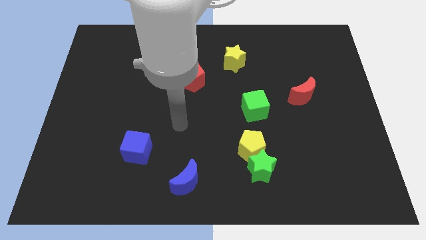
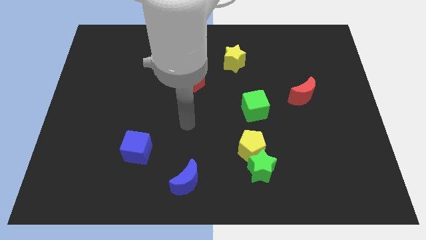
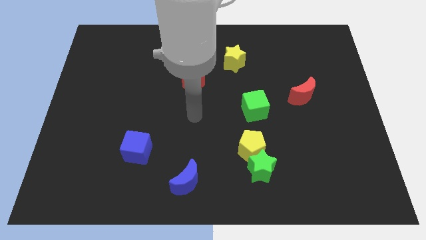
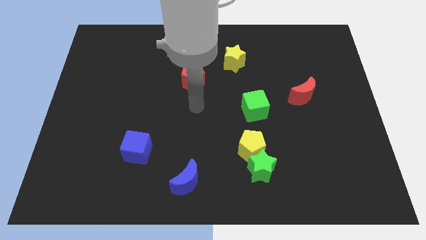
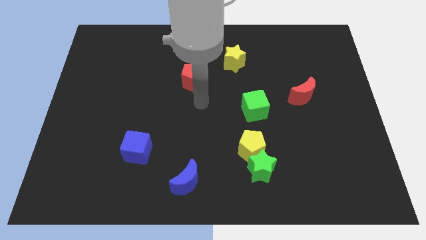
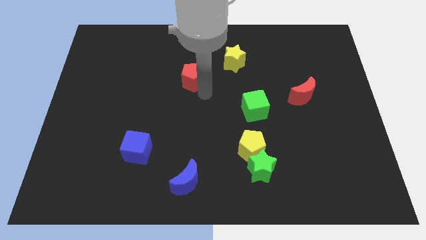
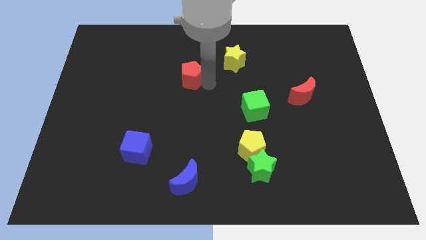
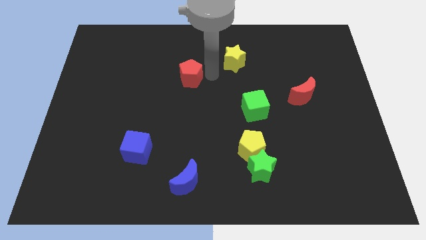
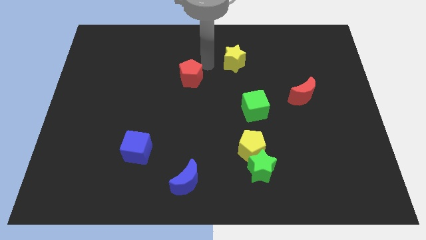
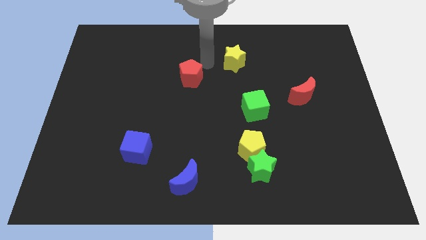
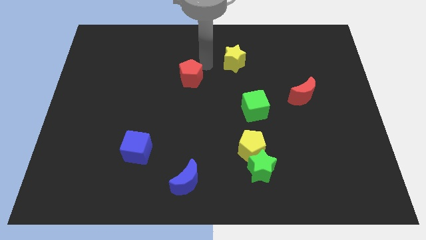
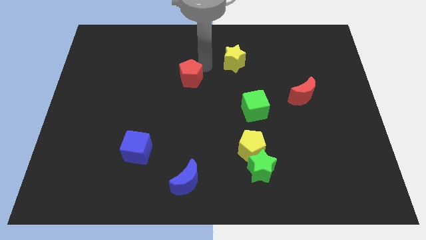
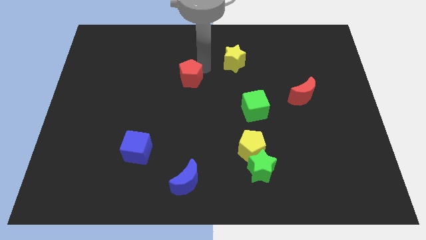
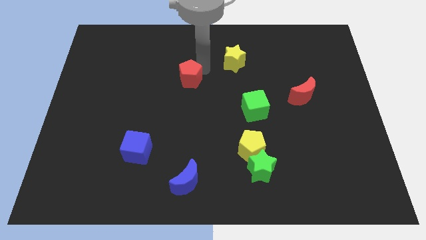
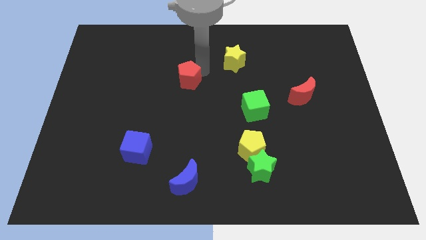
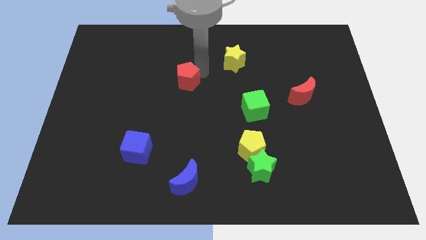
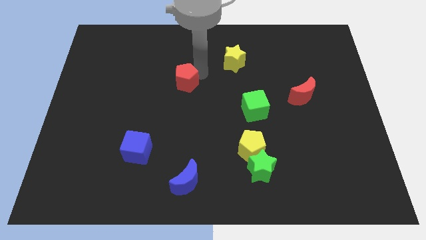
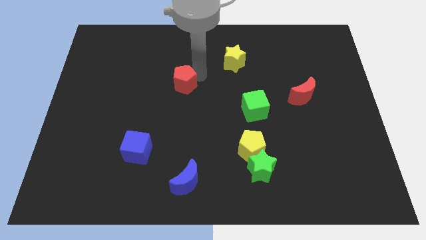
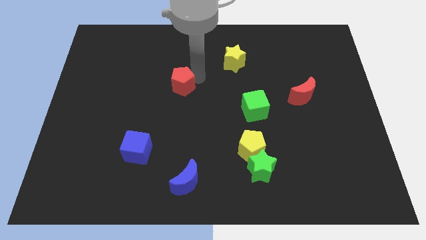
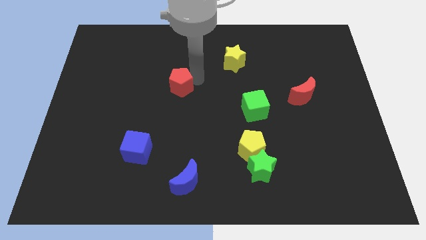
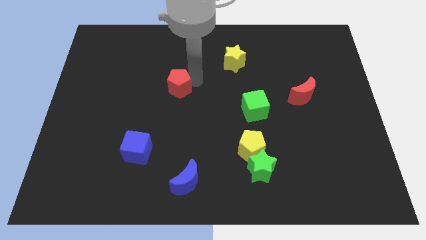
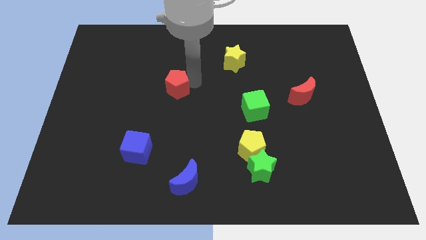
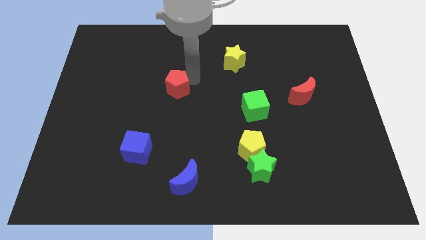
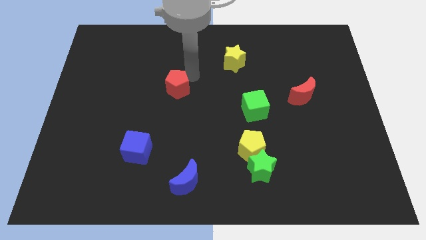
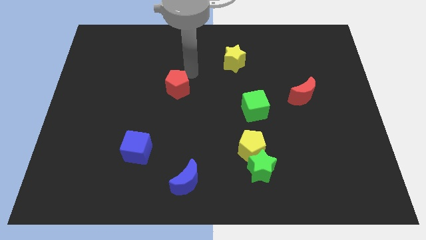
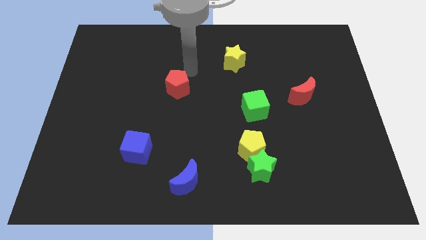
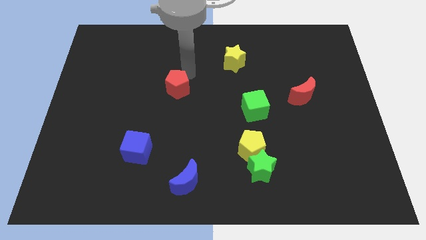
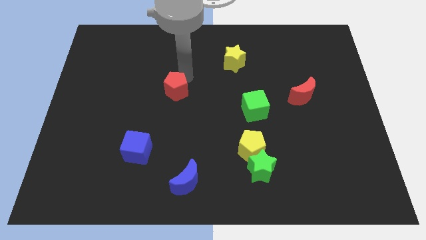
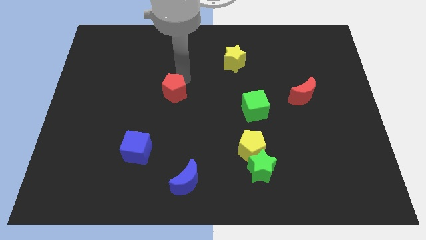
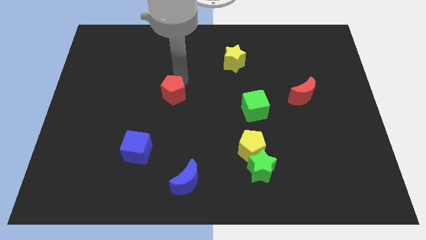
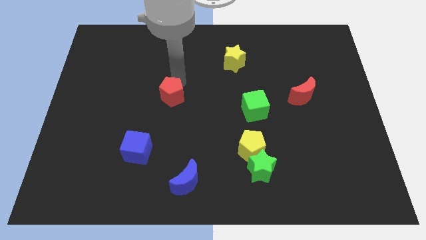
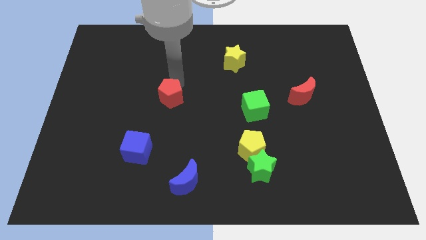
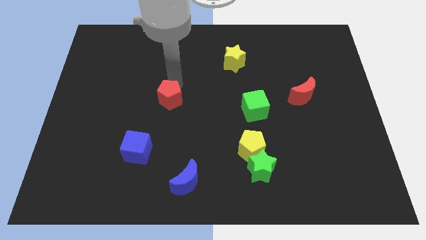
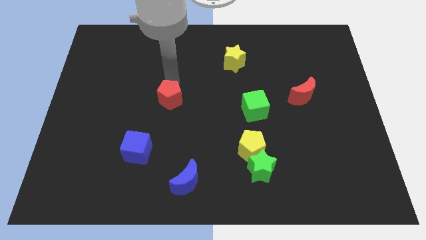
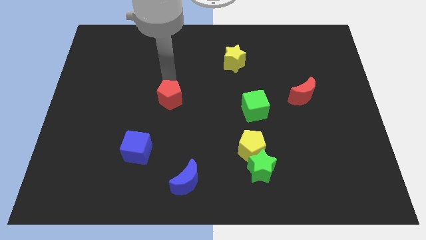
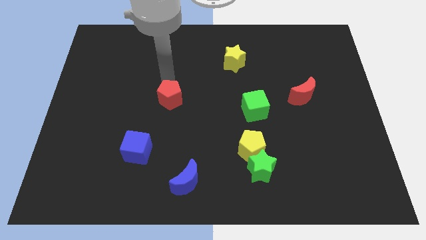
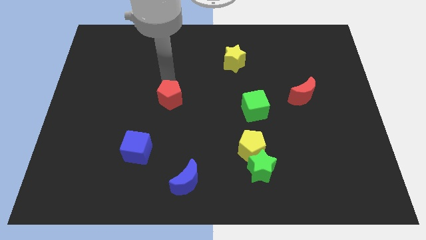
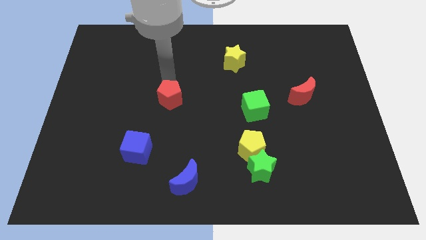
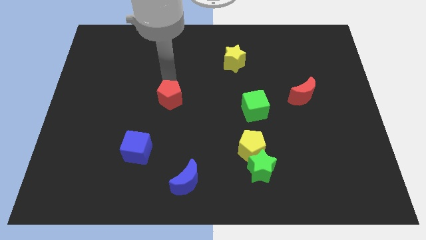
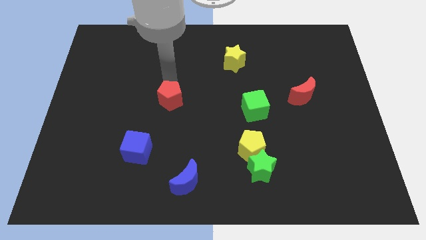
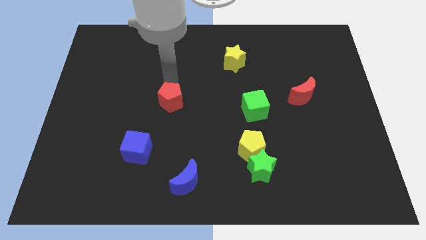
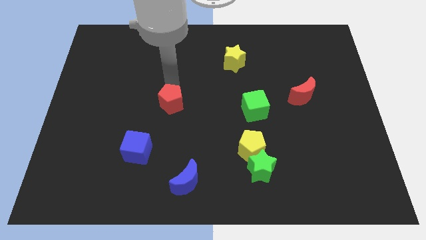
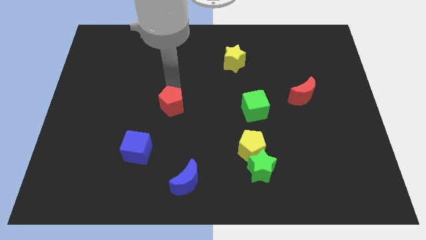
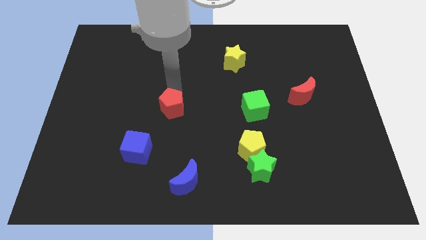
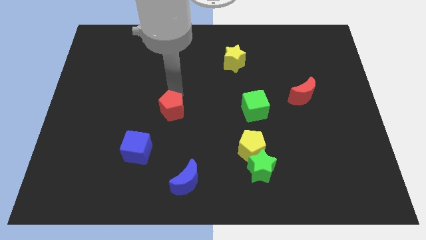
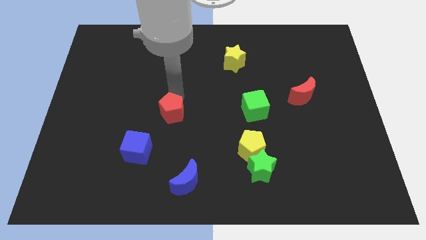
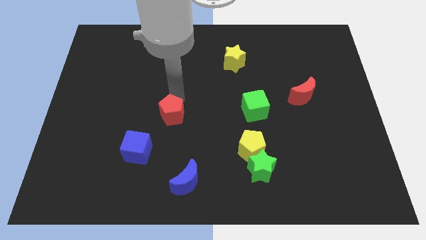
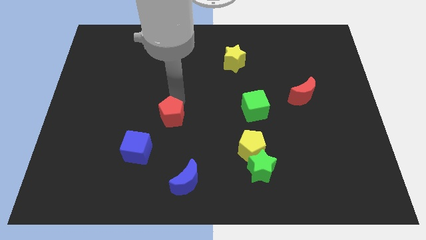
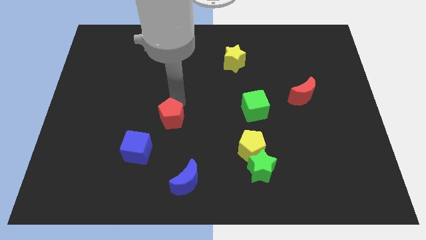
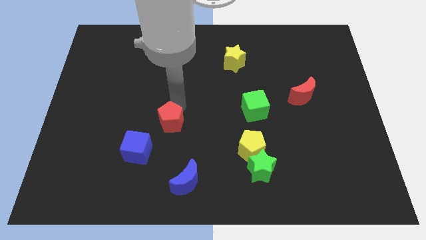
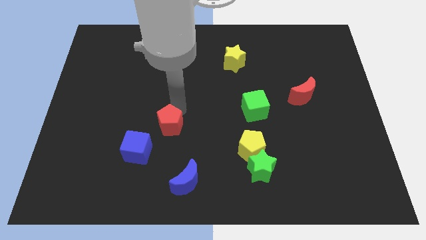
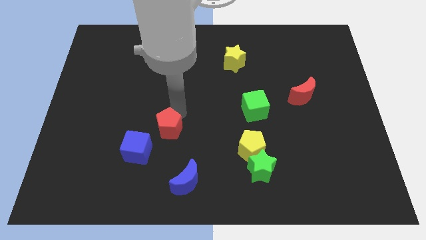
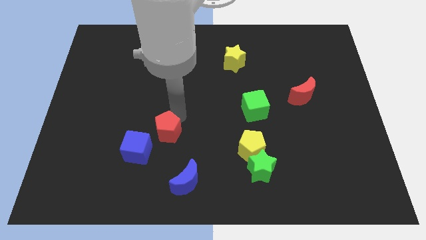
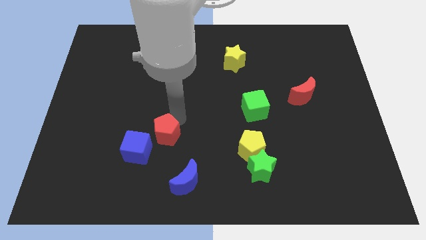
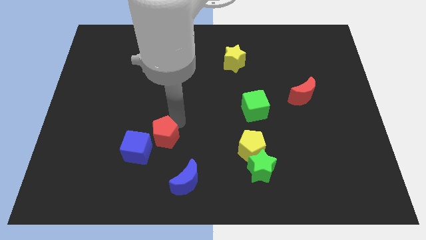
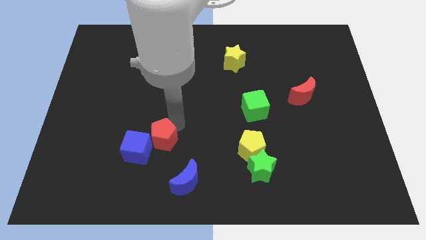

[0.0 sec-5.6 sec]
put the red pentagon to the top left of the blue moon
